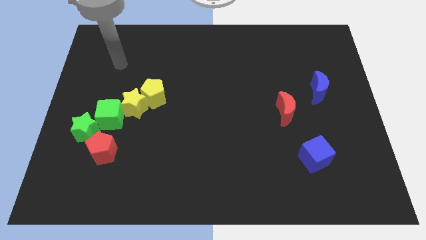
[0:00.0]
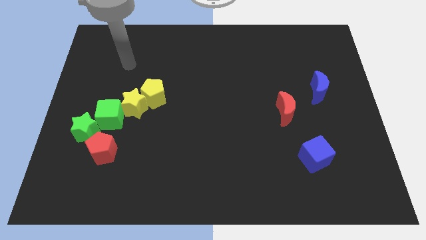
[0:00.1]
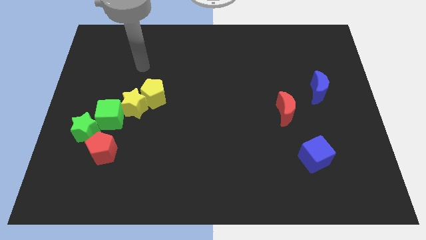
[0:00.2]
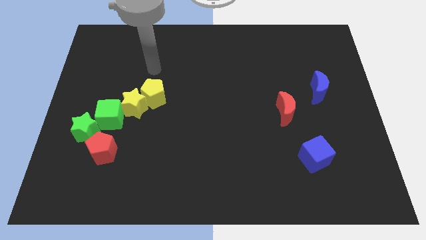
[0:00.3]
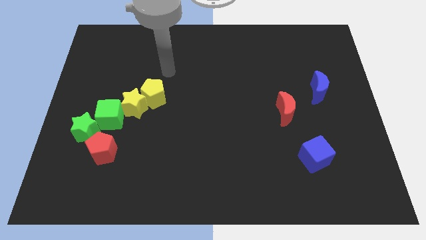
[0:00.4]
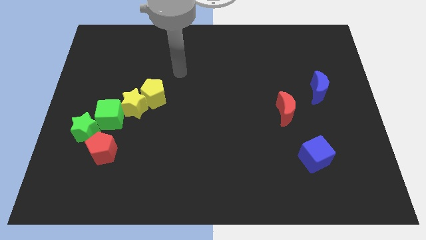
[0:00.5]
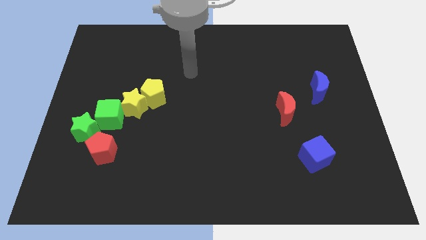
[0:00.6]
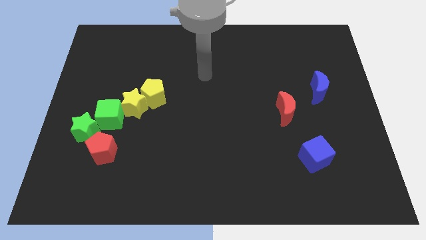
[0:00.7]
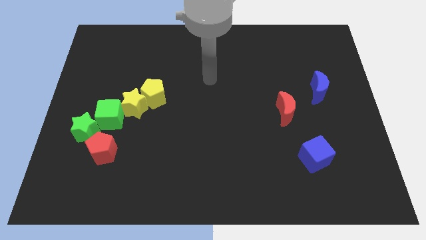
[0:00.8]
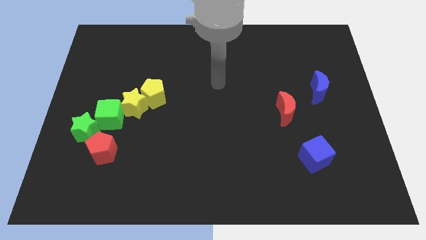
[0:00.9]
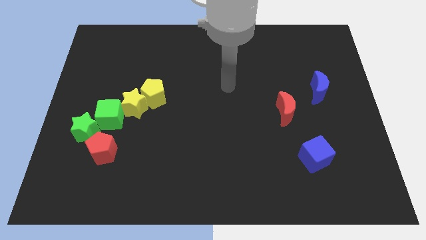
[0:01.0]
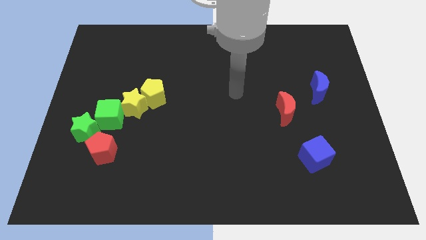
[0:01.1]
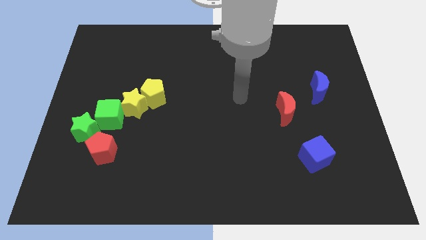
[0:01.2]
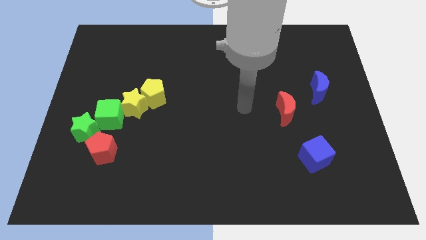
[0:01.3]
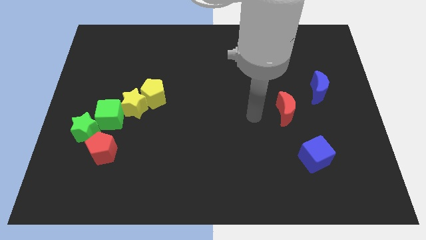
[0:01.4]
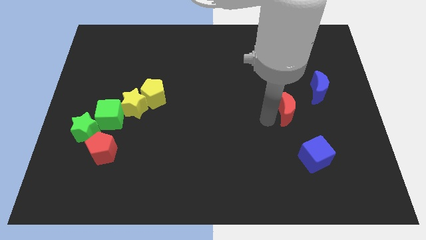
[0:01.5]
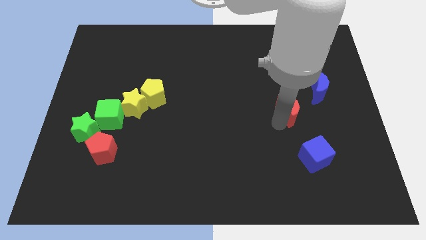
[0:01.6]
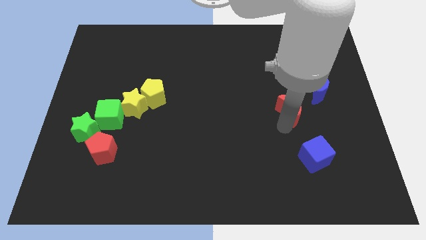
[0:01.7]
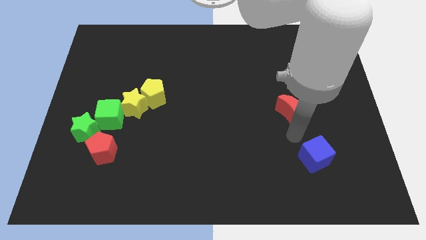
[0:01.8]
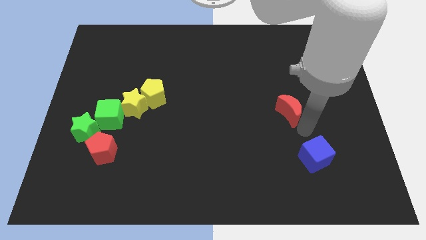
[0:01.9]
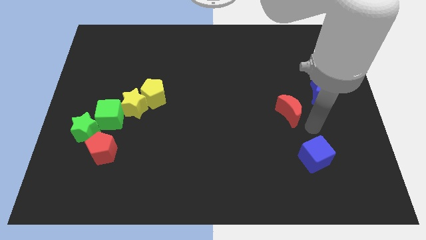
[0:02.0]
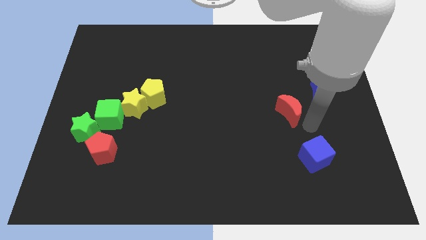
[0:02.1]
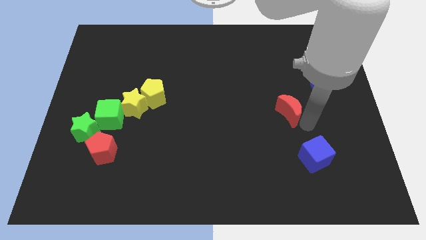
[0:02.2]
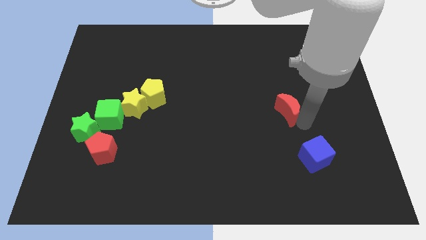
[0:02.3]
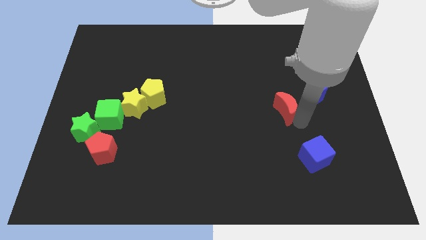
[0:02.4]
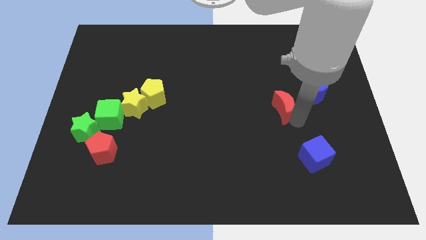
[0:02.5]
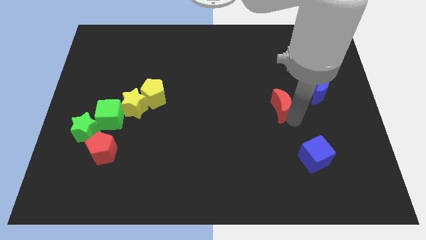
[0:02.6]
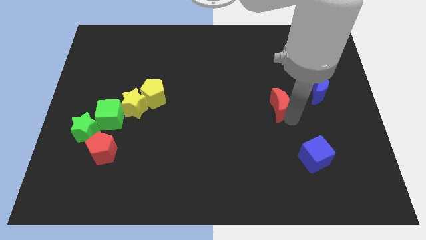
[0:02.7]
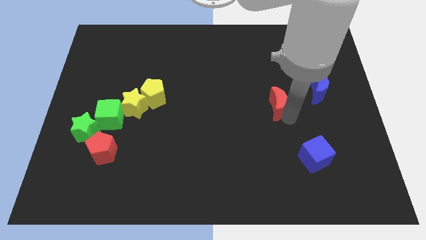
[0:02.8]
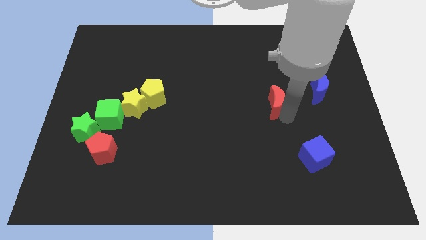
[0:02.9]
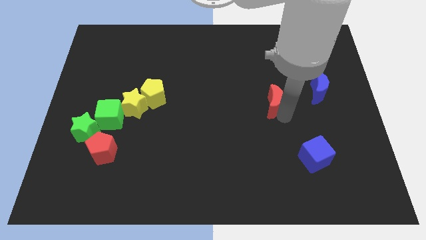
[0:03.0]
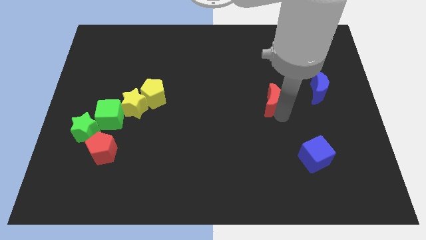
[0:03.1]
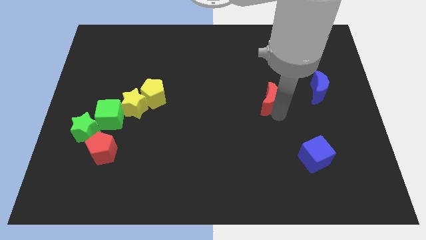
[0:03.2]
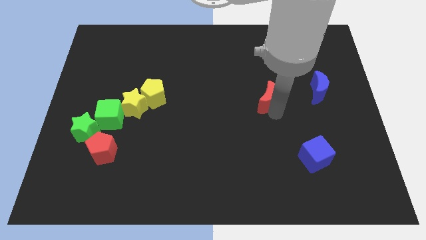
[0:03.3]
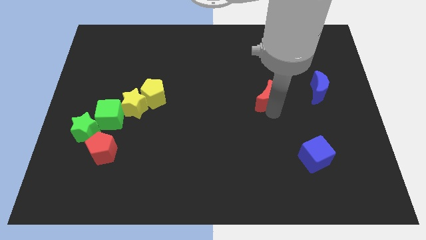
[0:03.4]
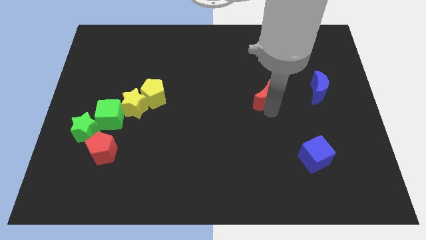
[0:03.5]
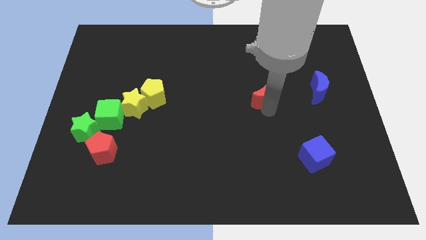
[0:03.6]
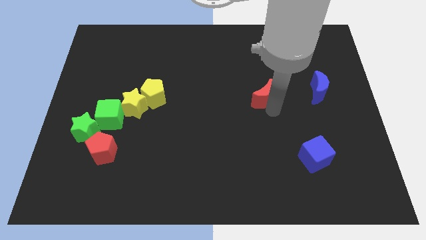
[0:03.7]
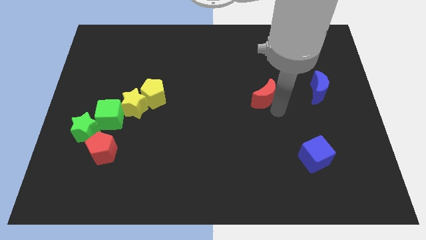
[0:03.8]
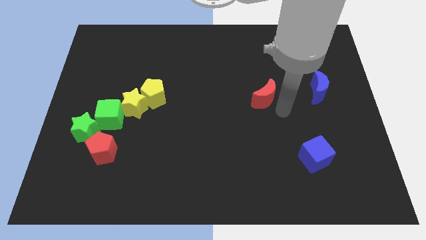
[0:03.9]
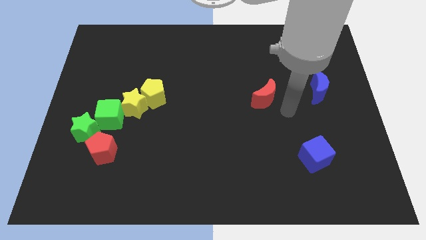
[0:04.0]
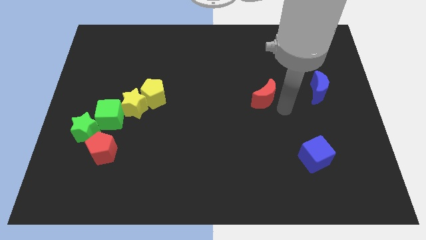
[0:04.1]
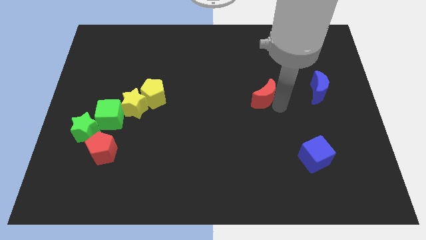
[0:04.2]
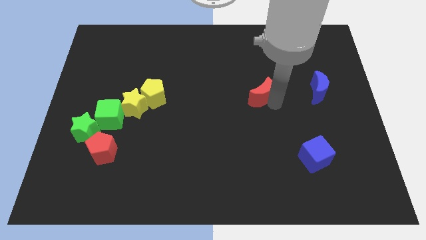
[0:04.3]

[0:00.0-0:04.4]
slightly move the red moon up and to the left diagonally

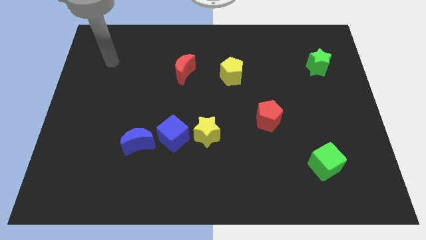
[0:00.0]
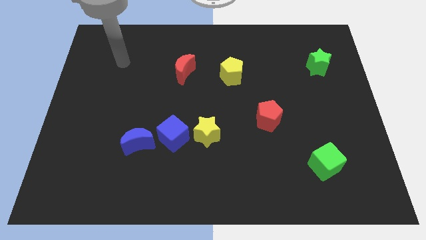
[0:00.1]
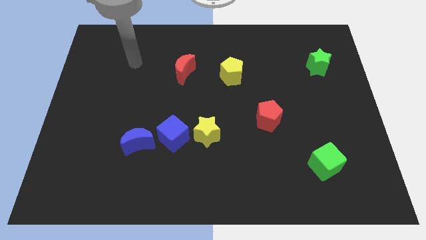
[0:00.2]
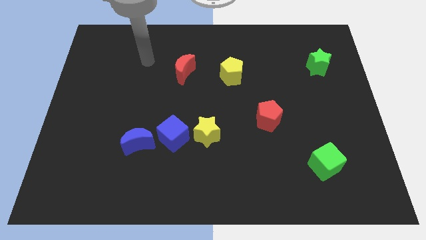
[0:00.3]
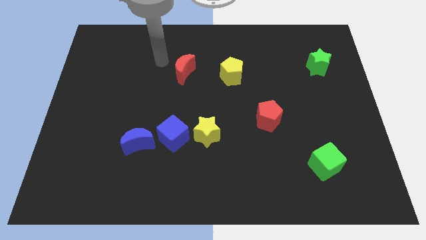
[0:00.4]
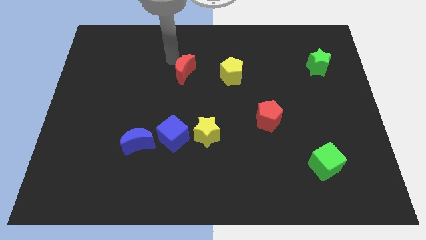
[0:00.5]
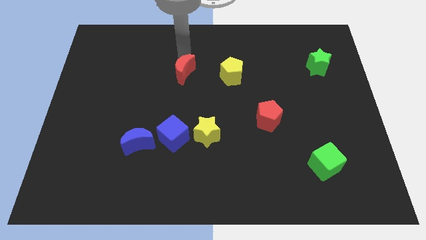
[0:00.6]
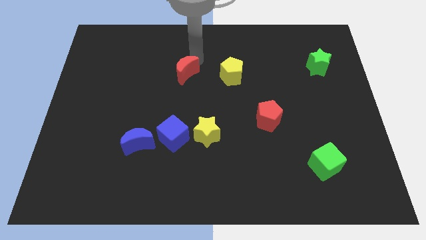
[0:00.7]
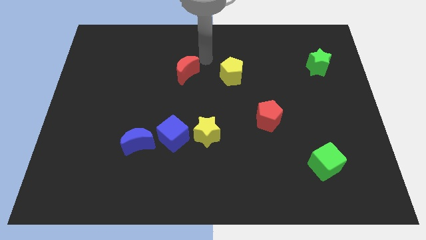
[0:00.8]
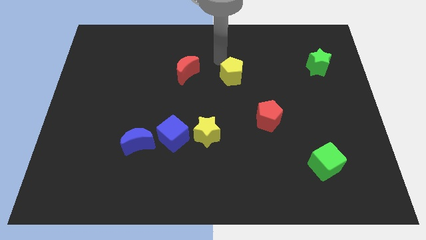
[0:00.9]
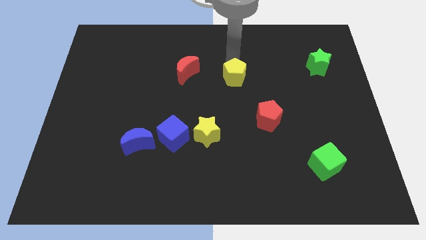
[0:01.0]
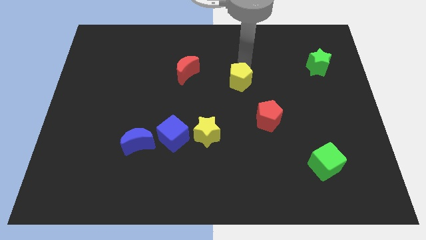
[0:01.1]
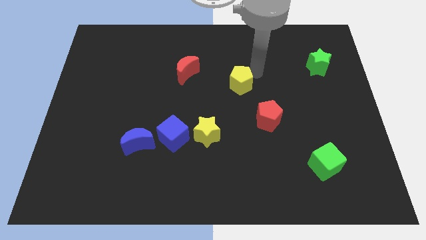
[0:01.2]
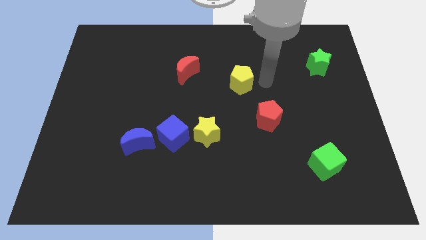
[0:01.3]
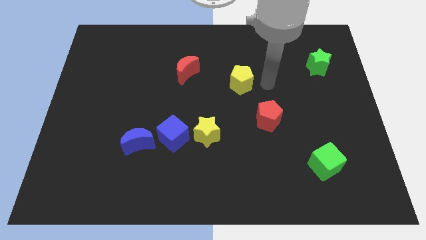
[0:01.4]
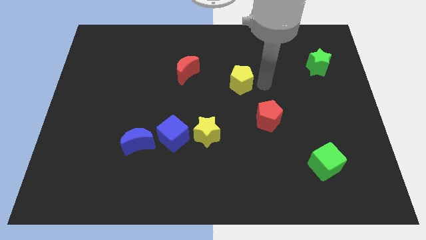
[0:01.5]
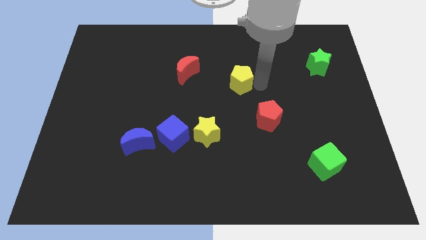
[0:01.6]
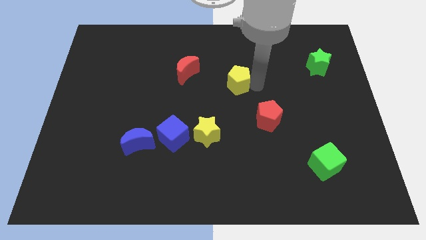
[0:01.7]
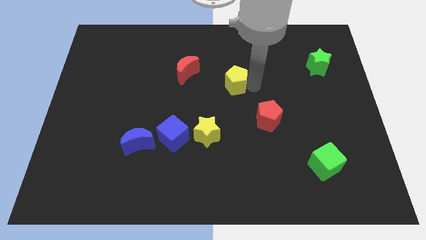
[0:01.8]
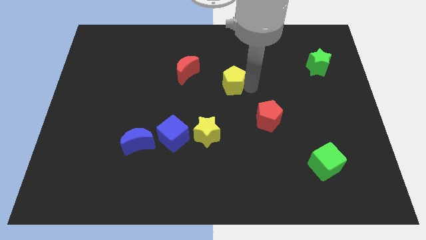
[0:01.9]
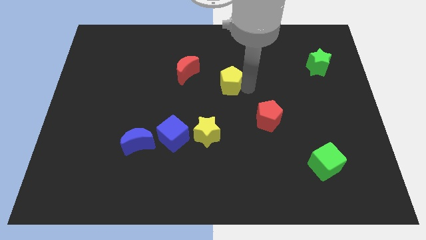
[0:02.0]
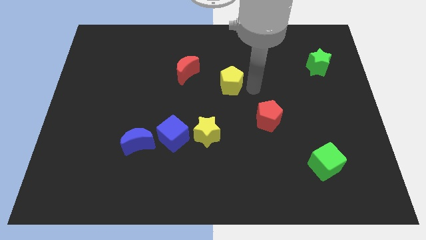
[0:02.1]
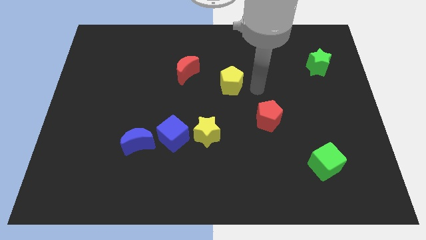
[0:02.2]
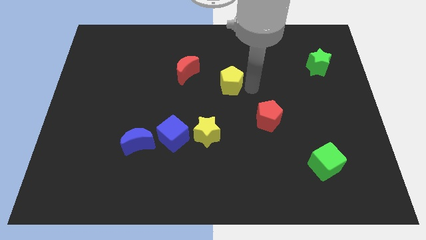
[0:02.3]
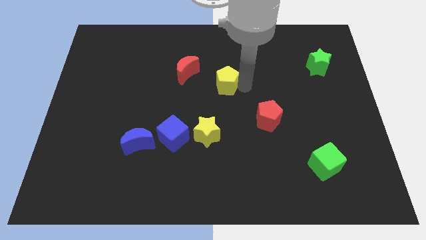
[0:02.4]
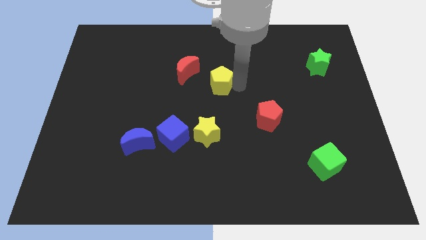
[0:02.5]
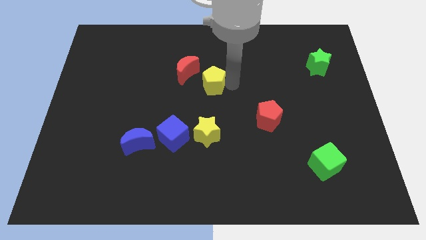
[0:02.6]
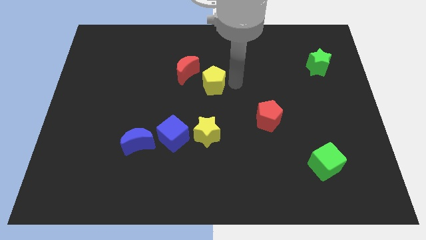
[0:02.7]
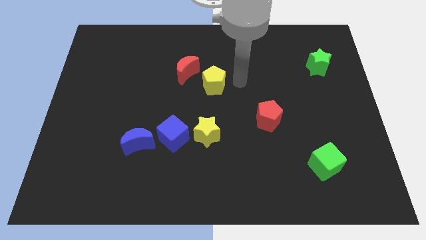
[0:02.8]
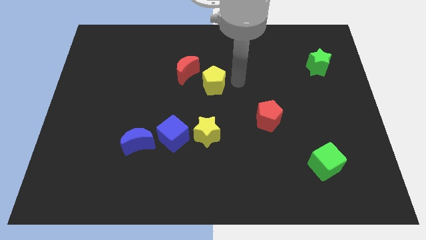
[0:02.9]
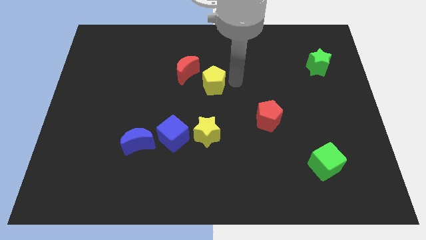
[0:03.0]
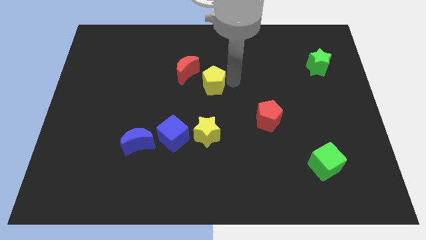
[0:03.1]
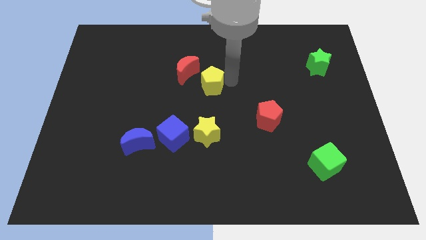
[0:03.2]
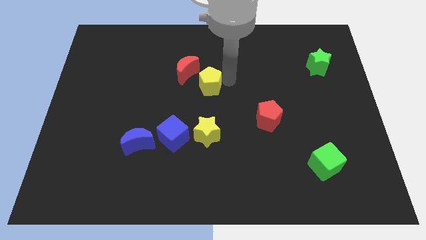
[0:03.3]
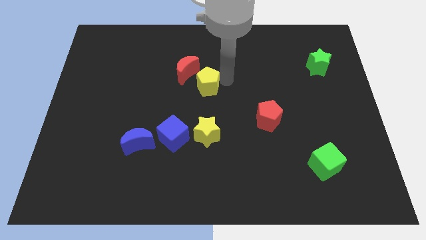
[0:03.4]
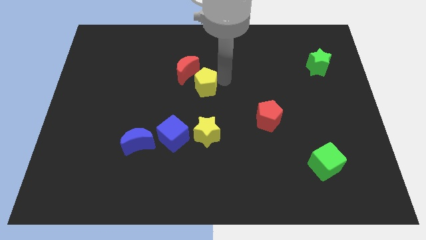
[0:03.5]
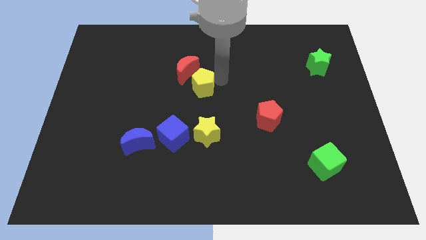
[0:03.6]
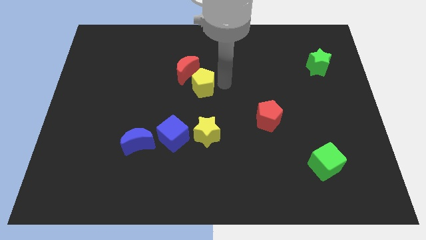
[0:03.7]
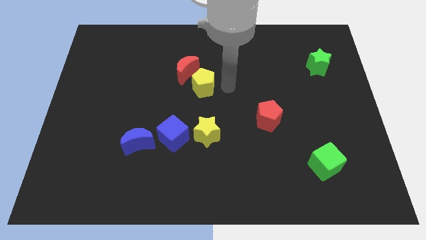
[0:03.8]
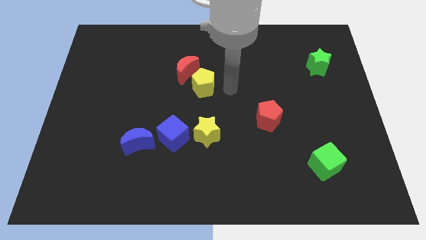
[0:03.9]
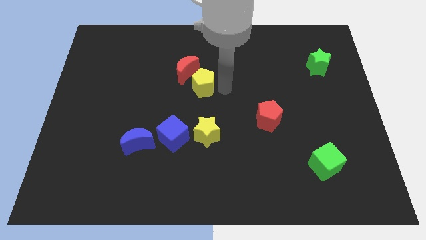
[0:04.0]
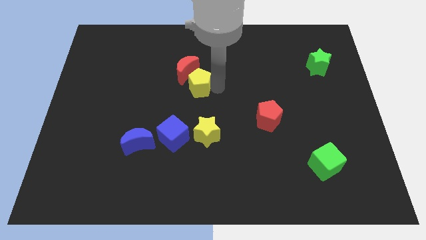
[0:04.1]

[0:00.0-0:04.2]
push the yellow pentagon to the left somewhat
